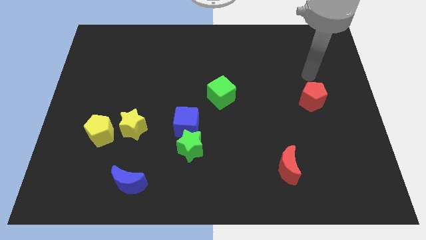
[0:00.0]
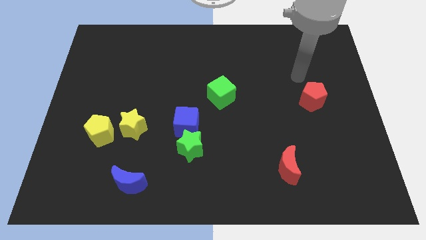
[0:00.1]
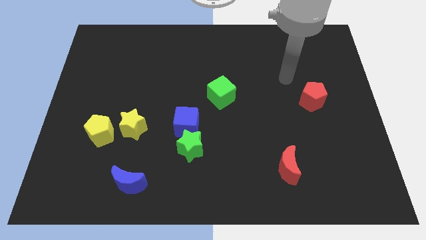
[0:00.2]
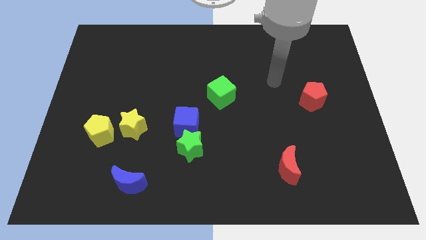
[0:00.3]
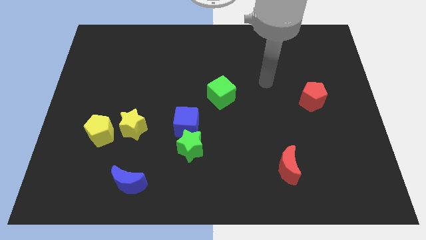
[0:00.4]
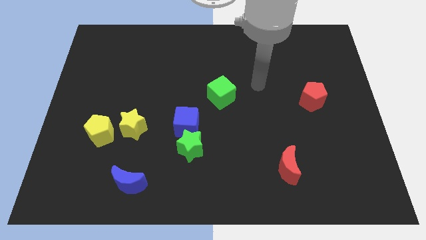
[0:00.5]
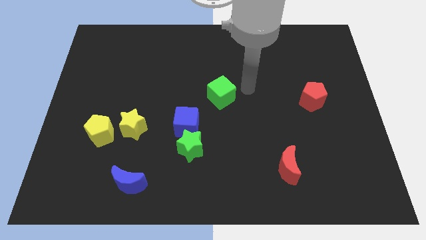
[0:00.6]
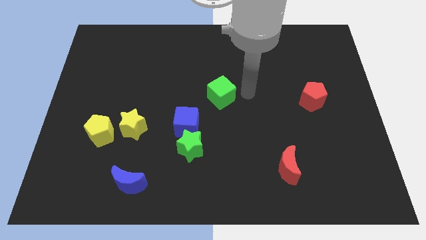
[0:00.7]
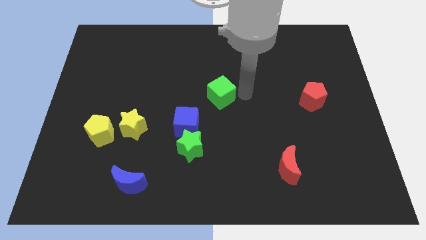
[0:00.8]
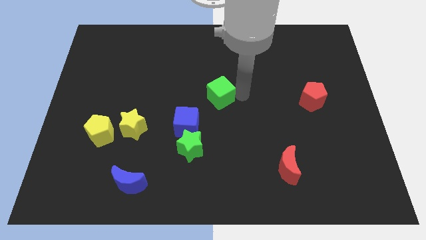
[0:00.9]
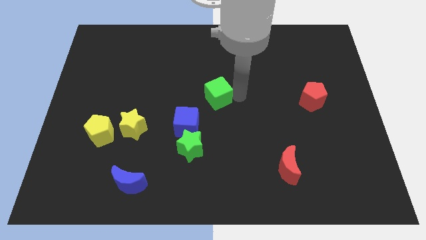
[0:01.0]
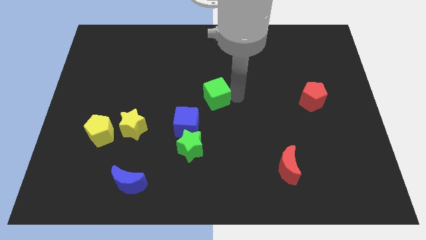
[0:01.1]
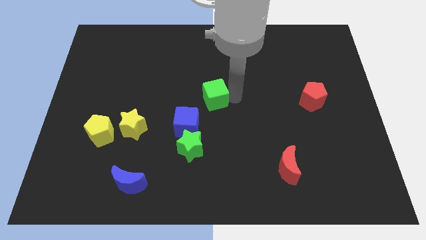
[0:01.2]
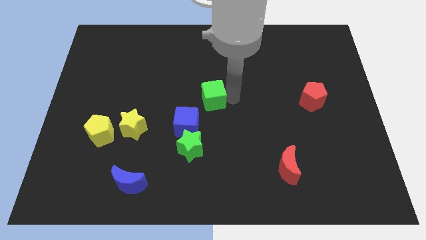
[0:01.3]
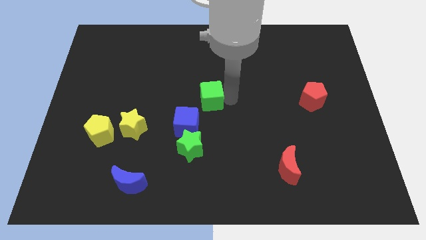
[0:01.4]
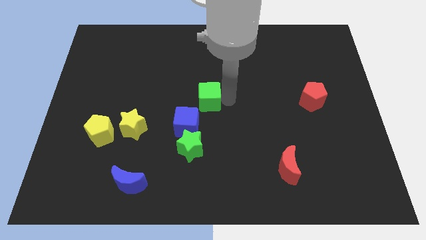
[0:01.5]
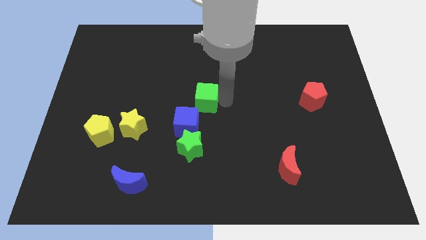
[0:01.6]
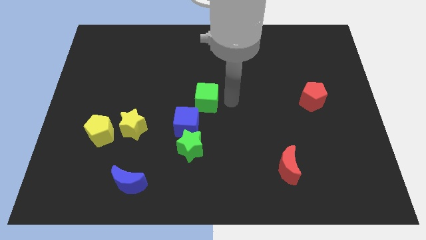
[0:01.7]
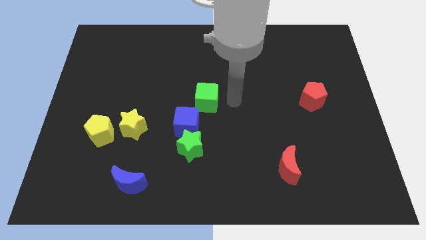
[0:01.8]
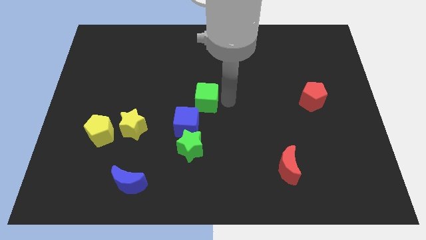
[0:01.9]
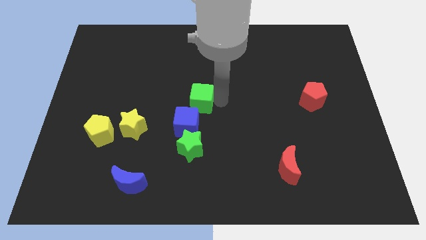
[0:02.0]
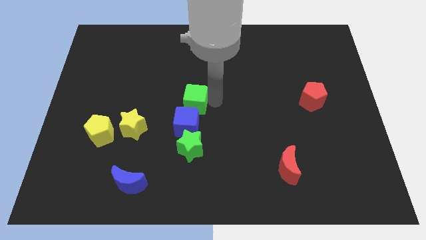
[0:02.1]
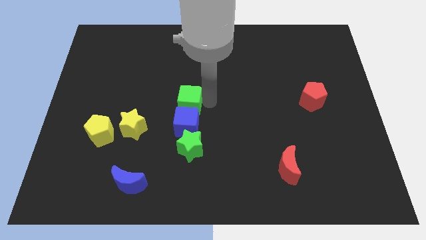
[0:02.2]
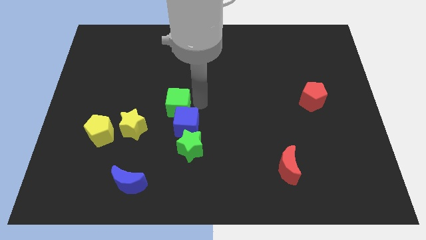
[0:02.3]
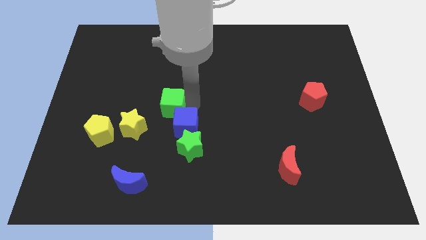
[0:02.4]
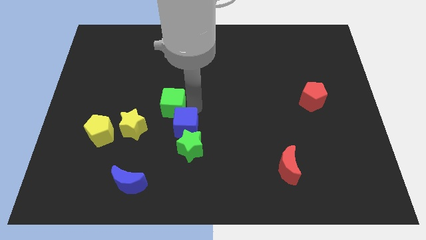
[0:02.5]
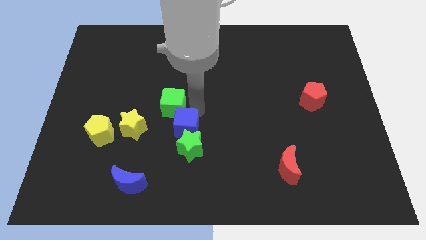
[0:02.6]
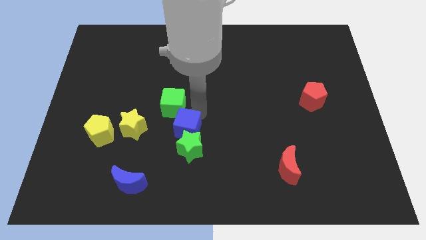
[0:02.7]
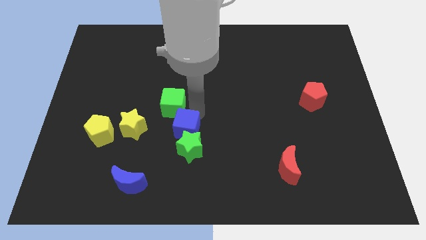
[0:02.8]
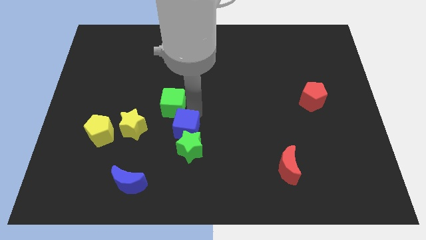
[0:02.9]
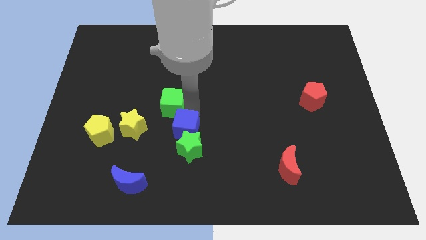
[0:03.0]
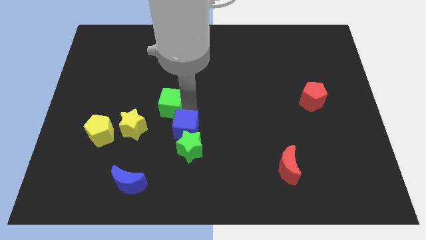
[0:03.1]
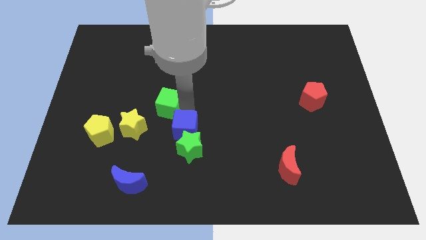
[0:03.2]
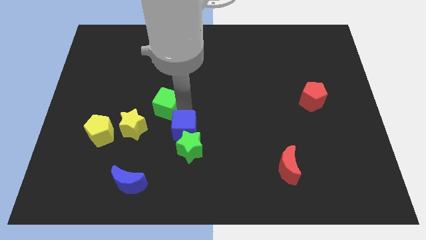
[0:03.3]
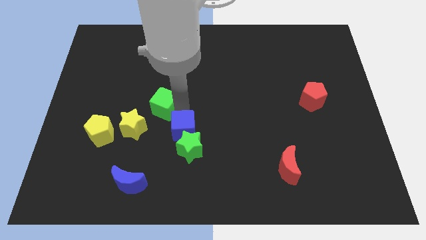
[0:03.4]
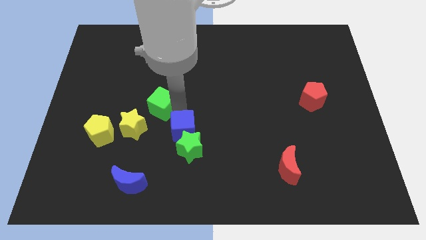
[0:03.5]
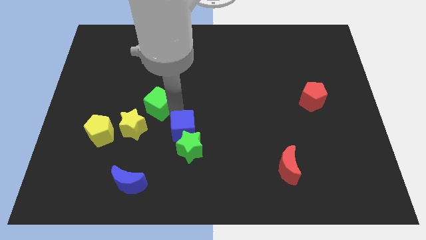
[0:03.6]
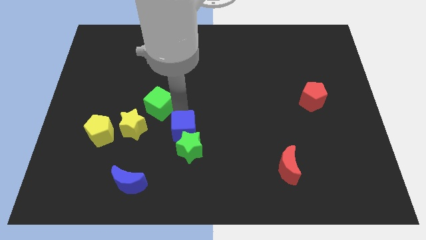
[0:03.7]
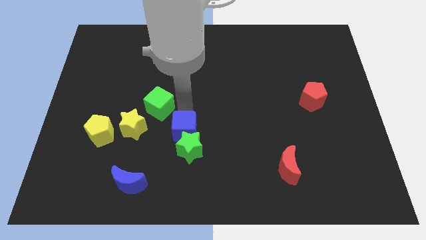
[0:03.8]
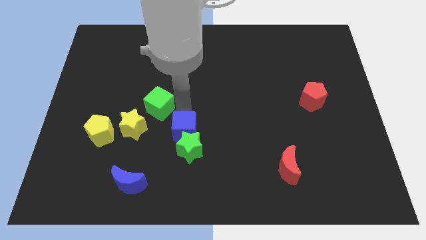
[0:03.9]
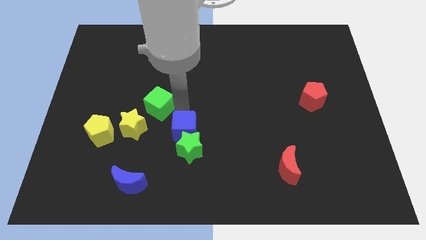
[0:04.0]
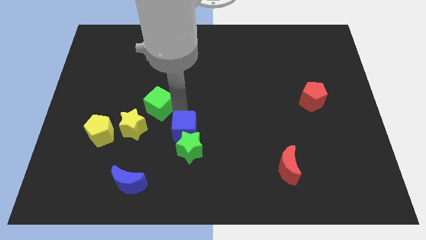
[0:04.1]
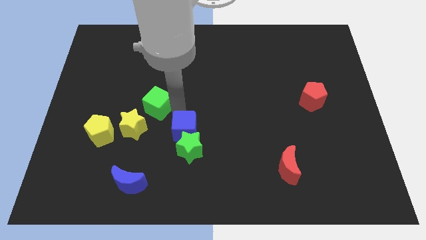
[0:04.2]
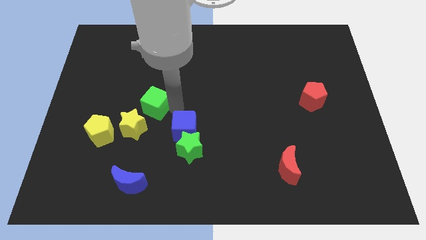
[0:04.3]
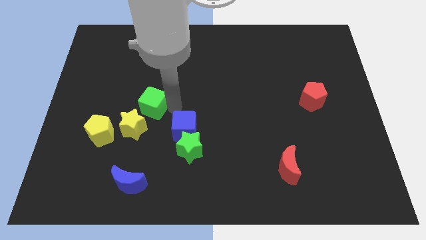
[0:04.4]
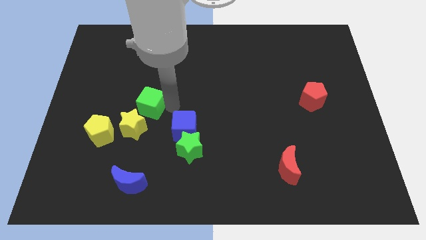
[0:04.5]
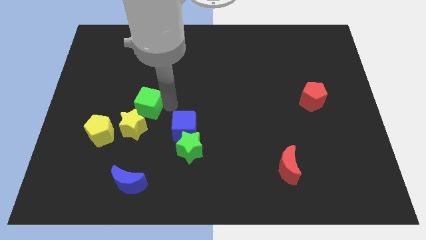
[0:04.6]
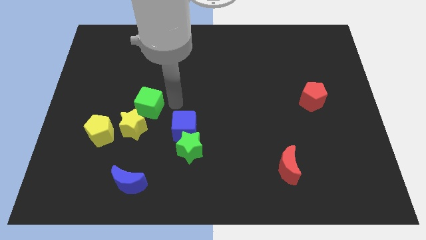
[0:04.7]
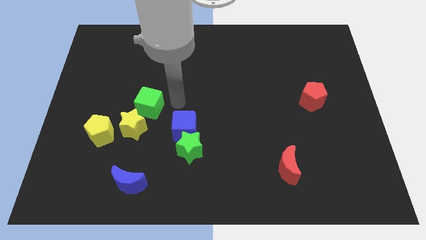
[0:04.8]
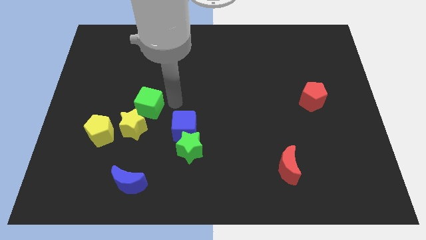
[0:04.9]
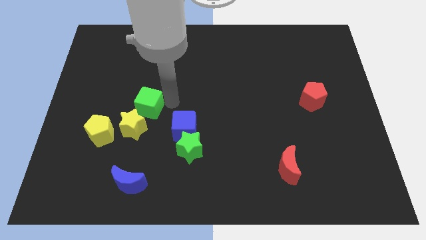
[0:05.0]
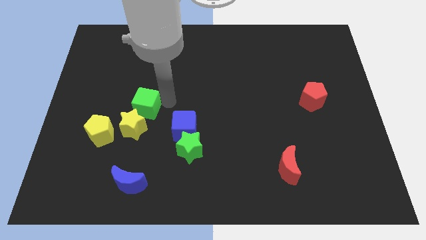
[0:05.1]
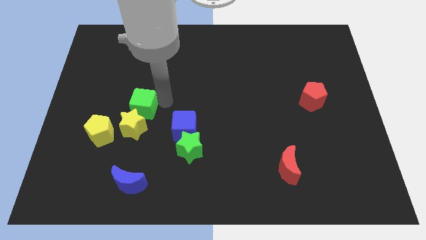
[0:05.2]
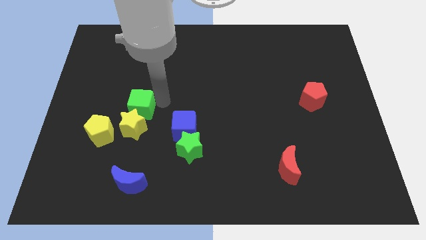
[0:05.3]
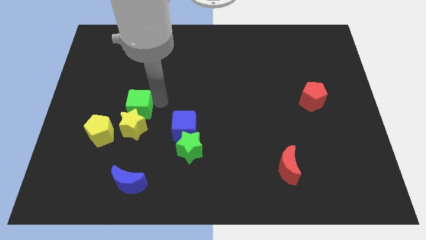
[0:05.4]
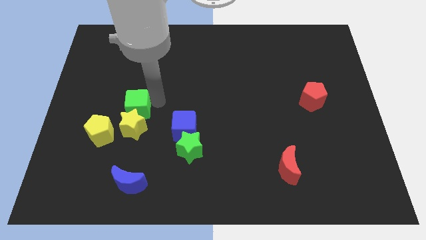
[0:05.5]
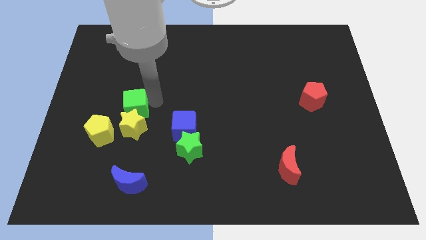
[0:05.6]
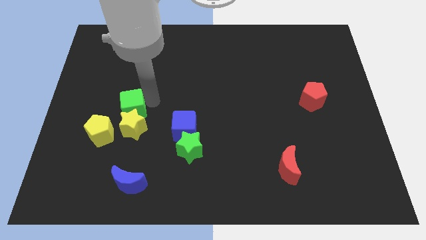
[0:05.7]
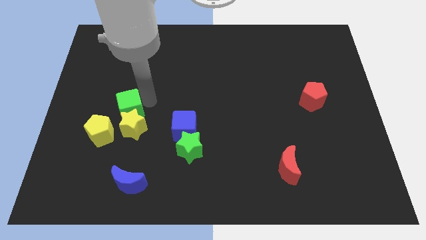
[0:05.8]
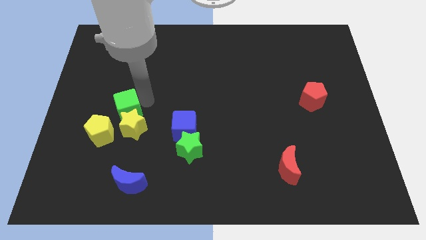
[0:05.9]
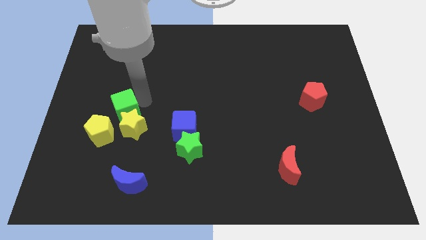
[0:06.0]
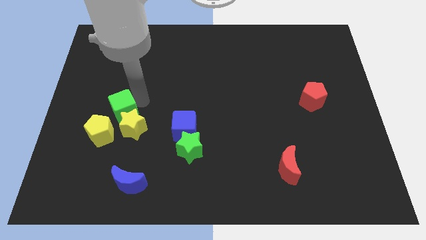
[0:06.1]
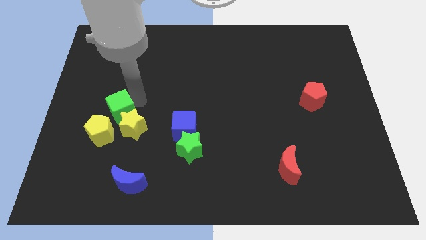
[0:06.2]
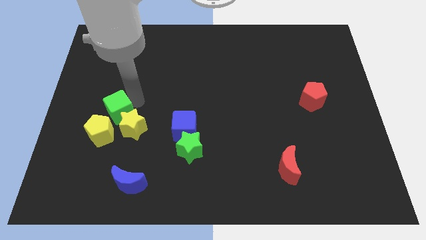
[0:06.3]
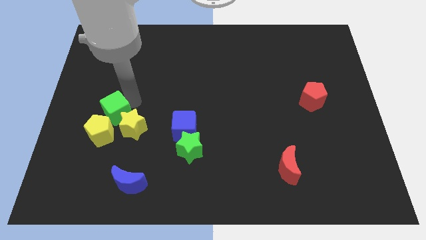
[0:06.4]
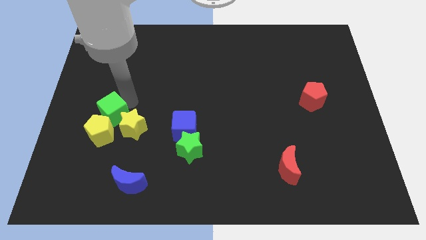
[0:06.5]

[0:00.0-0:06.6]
move the green cube next to the yellow pentagon
